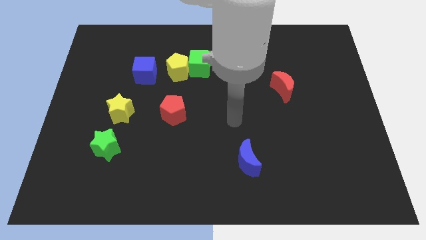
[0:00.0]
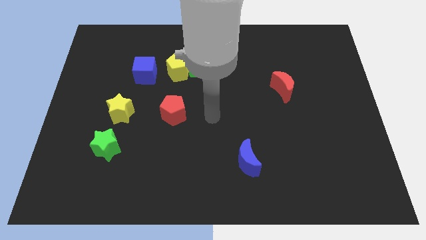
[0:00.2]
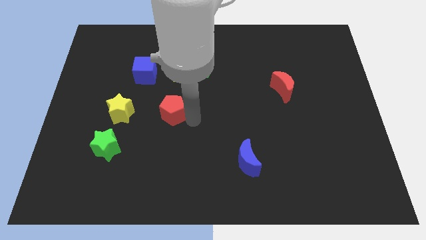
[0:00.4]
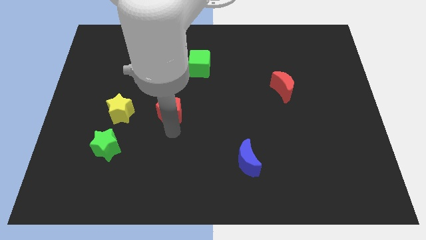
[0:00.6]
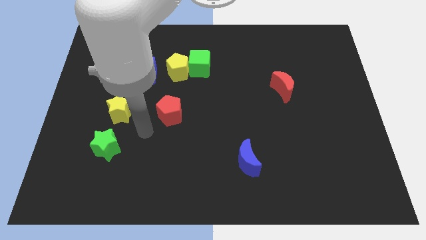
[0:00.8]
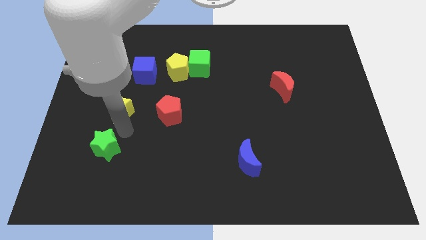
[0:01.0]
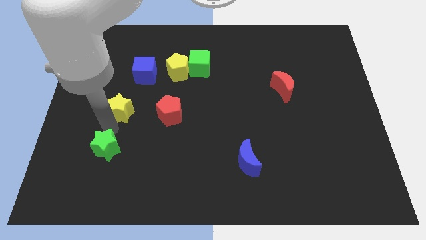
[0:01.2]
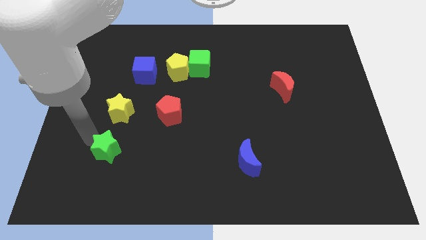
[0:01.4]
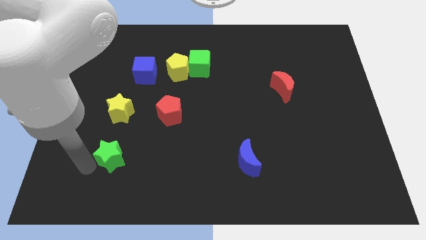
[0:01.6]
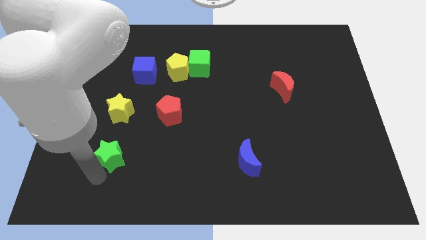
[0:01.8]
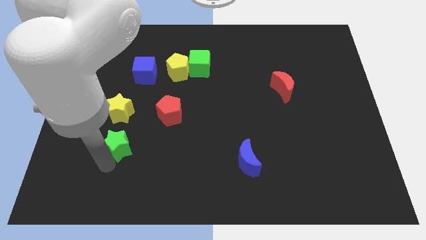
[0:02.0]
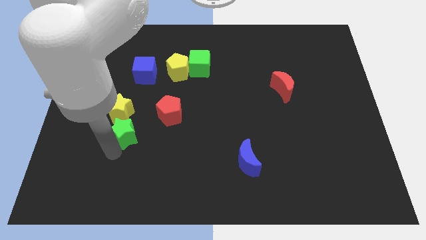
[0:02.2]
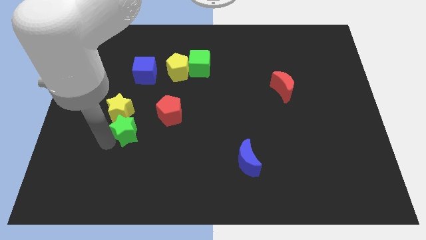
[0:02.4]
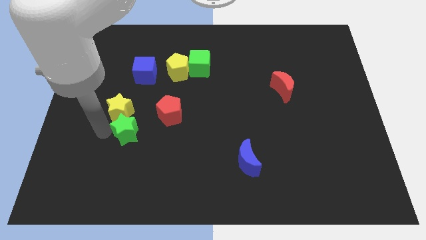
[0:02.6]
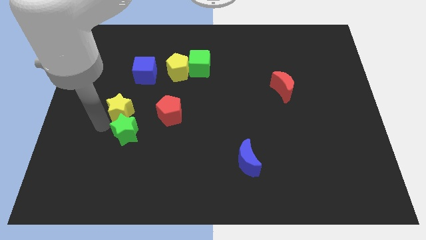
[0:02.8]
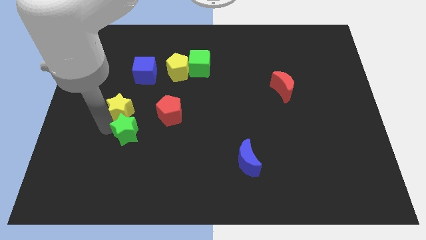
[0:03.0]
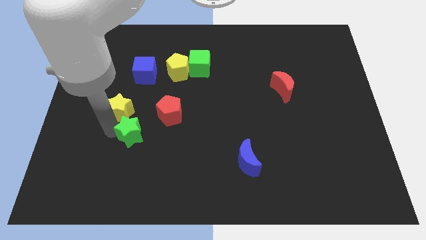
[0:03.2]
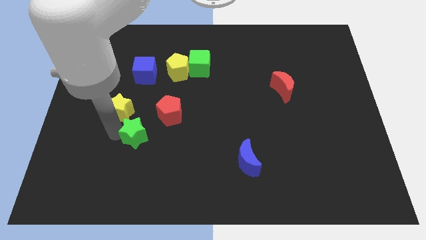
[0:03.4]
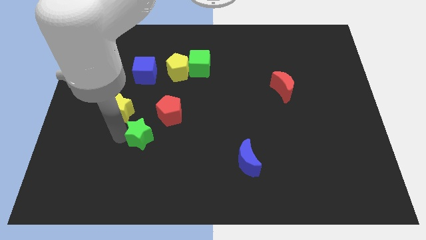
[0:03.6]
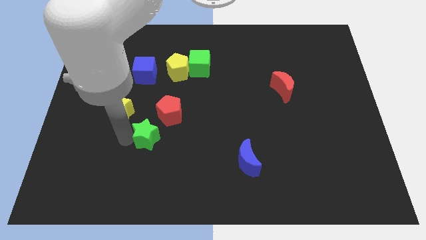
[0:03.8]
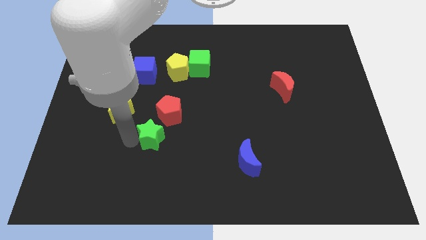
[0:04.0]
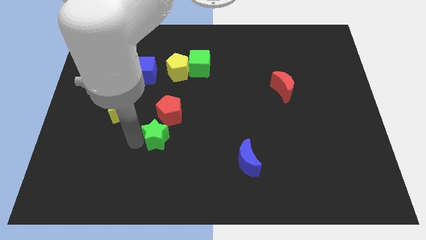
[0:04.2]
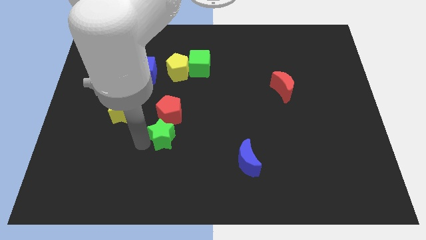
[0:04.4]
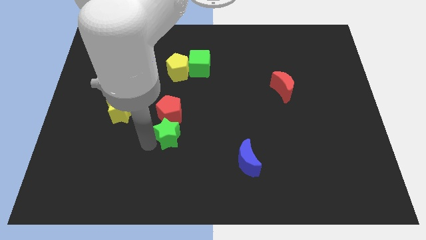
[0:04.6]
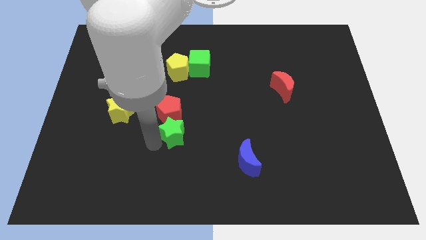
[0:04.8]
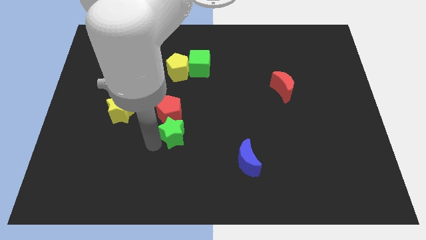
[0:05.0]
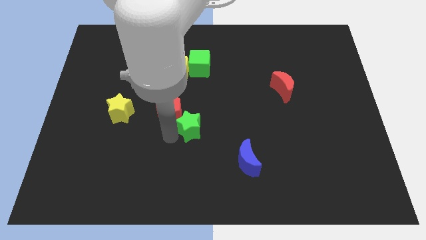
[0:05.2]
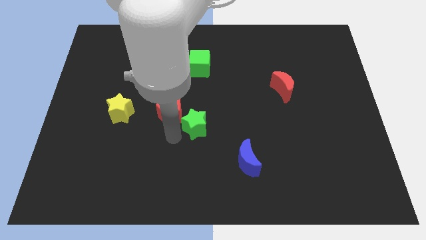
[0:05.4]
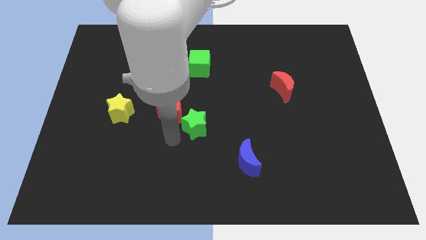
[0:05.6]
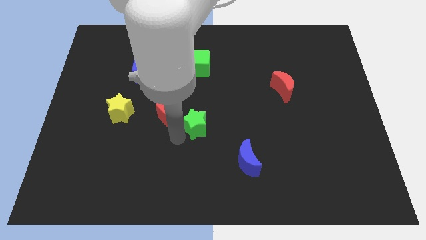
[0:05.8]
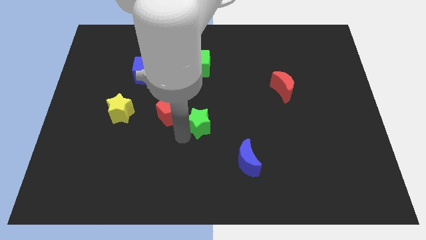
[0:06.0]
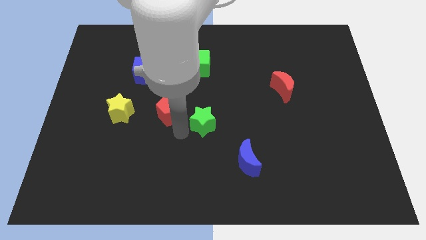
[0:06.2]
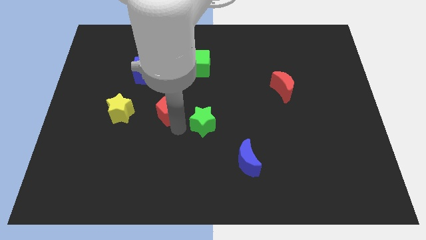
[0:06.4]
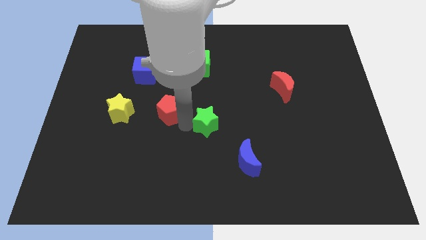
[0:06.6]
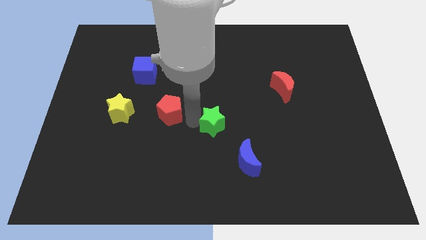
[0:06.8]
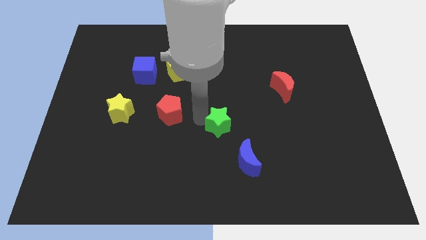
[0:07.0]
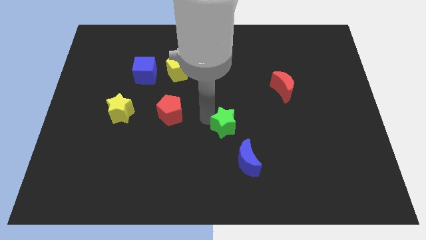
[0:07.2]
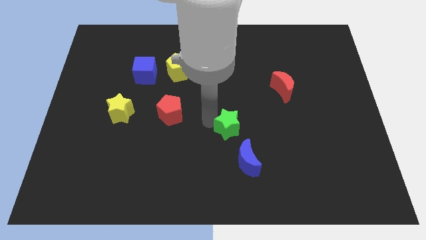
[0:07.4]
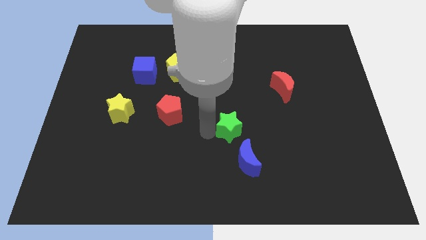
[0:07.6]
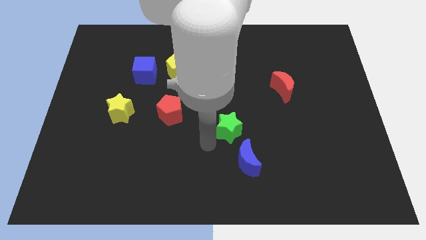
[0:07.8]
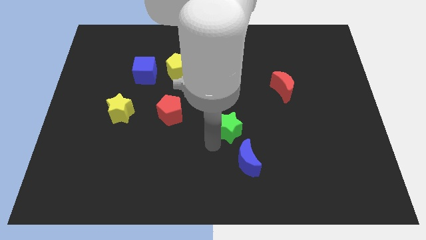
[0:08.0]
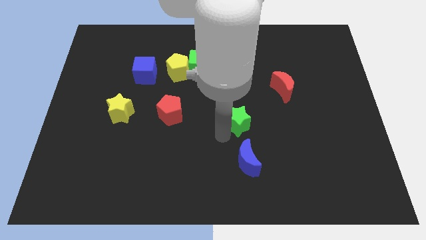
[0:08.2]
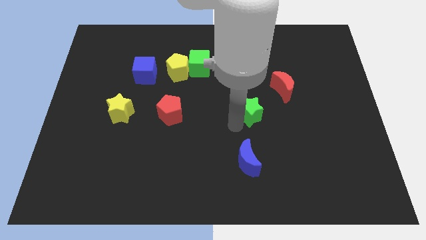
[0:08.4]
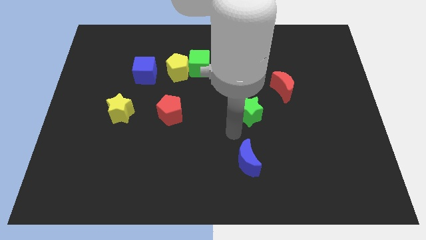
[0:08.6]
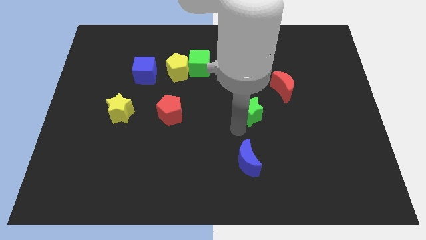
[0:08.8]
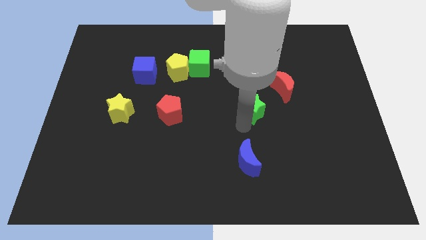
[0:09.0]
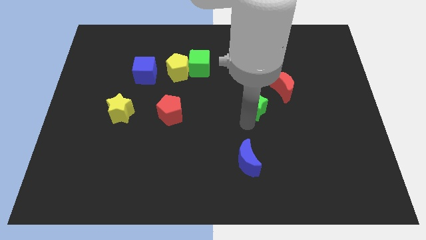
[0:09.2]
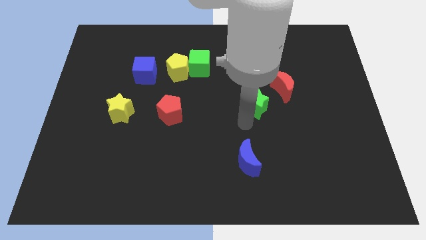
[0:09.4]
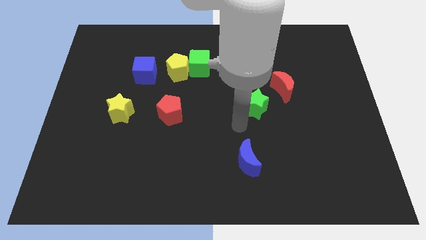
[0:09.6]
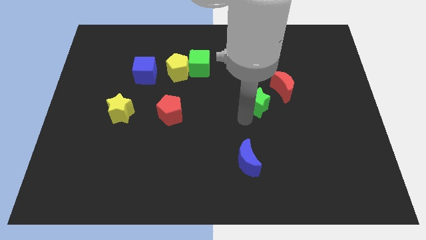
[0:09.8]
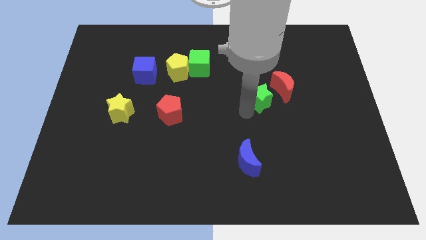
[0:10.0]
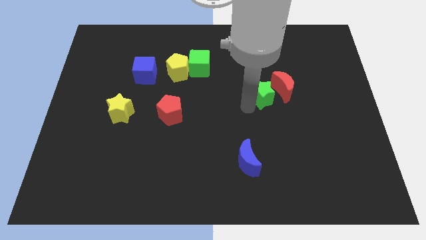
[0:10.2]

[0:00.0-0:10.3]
slide the green star close to the red moon

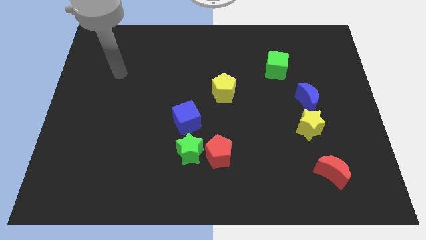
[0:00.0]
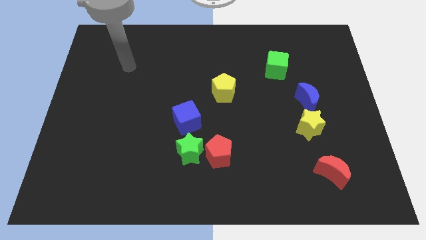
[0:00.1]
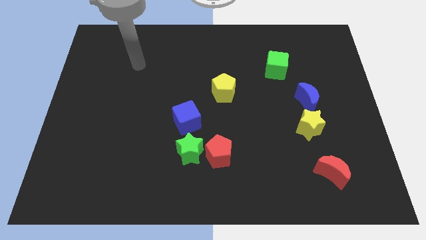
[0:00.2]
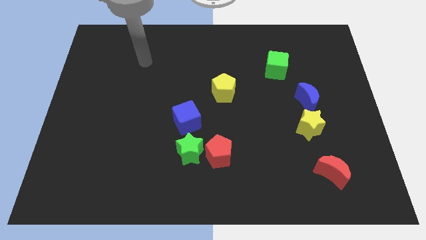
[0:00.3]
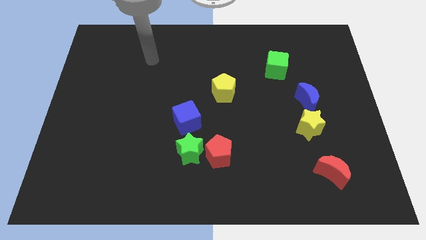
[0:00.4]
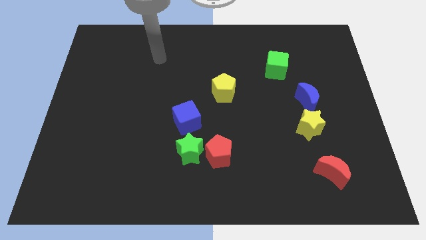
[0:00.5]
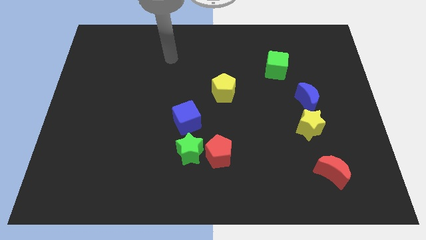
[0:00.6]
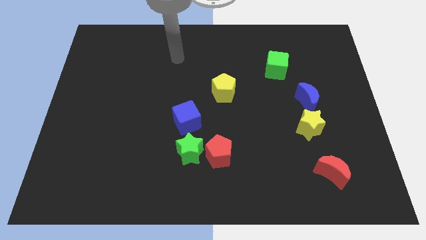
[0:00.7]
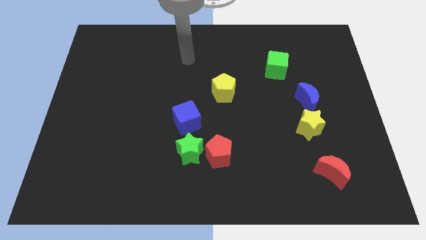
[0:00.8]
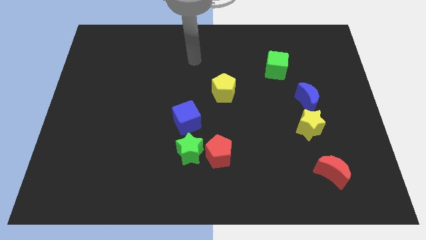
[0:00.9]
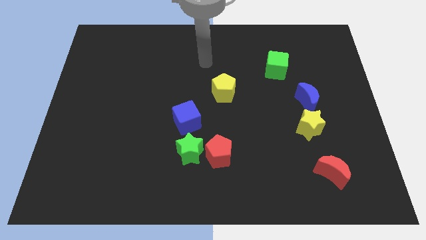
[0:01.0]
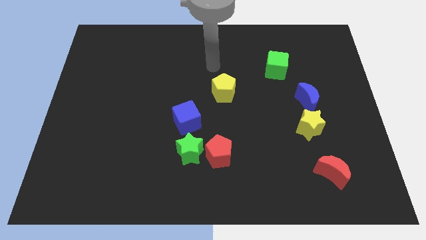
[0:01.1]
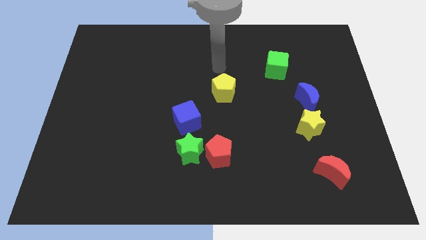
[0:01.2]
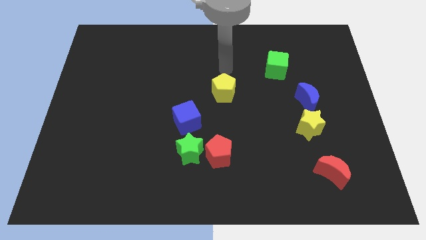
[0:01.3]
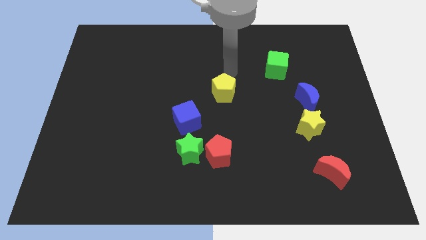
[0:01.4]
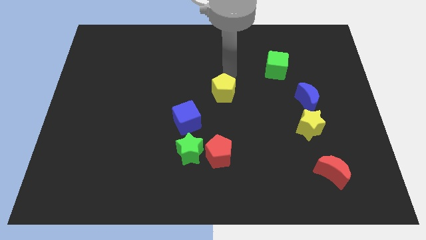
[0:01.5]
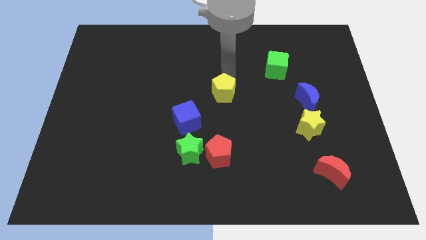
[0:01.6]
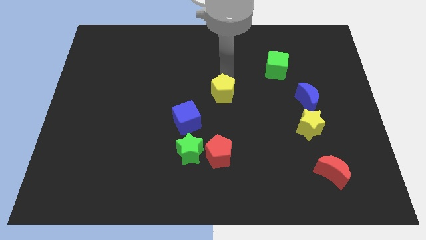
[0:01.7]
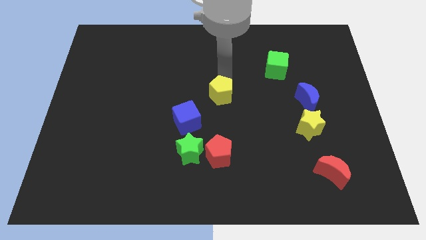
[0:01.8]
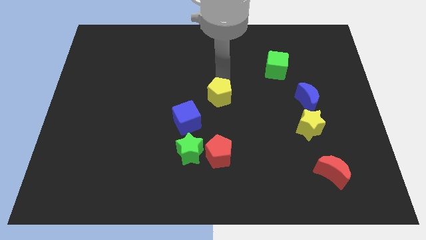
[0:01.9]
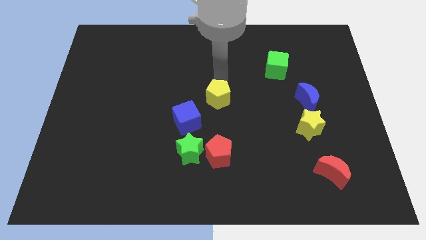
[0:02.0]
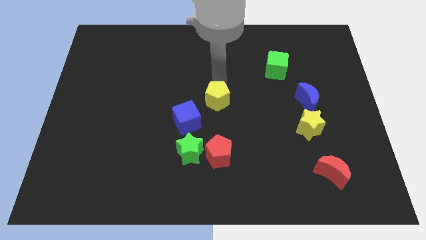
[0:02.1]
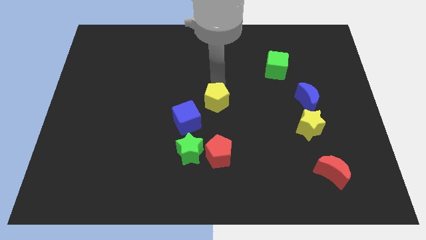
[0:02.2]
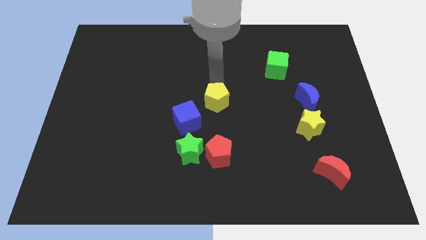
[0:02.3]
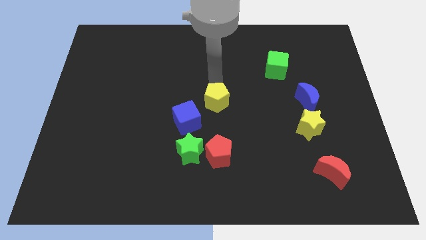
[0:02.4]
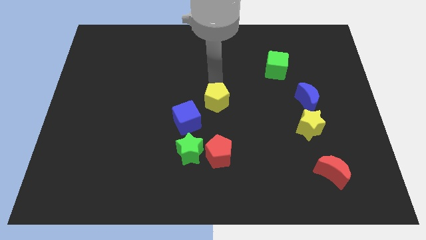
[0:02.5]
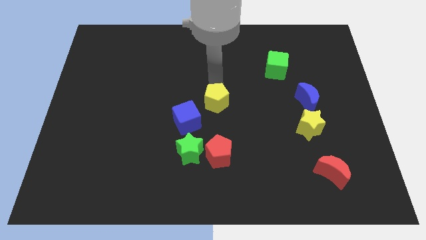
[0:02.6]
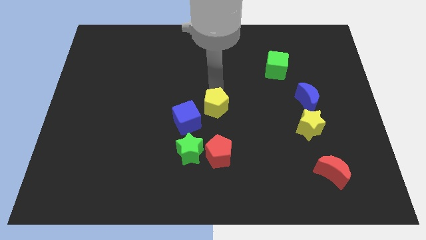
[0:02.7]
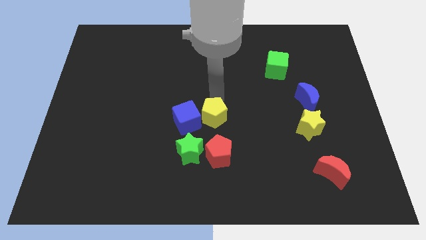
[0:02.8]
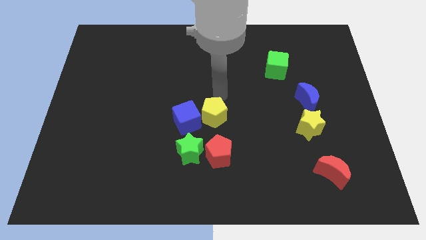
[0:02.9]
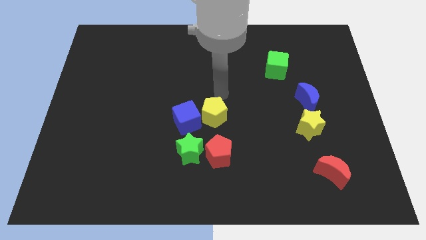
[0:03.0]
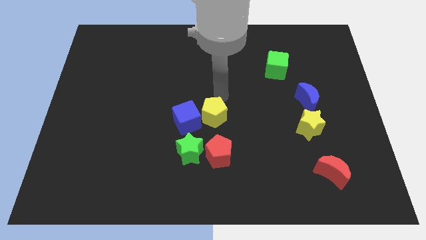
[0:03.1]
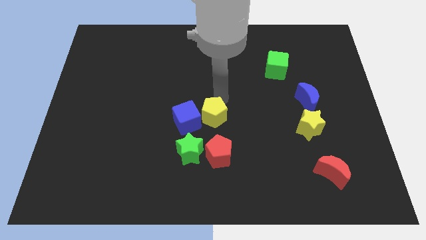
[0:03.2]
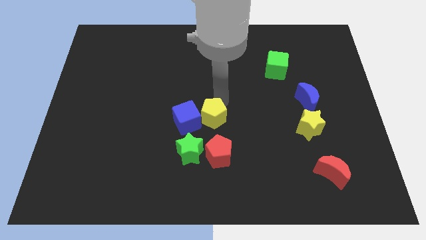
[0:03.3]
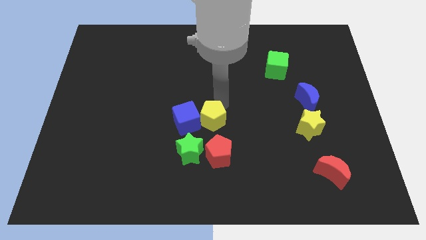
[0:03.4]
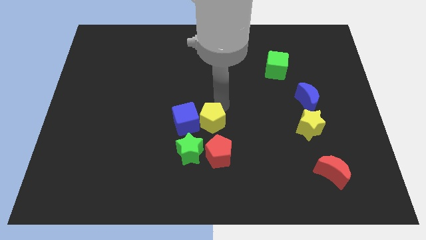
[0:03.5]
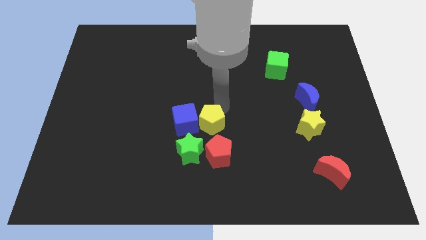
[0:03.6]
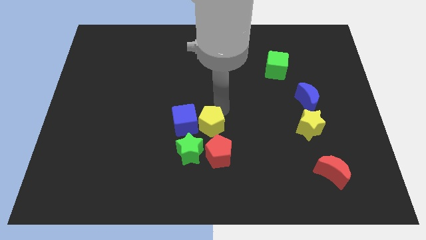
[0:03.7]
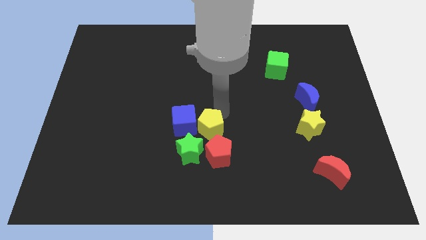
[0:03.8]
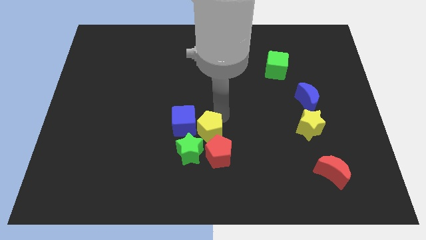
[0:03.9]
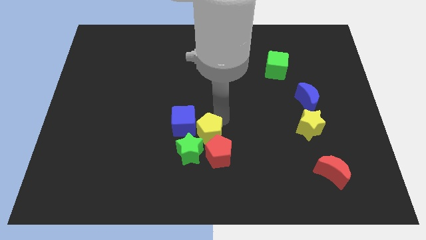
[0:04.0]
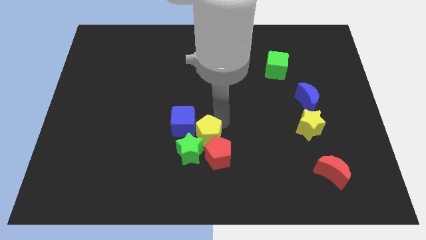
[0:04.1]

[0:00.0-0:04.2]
move the yellow pentagon towards the green star
